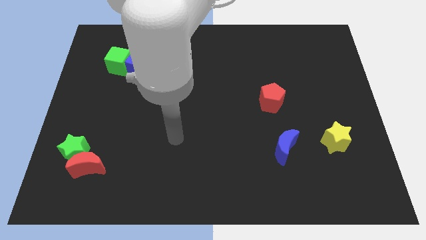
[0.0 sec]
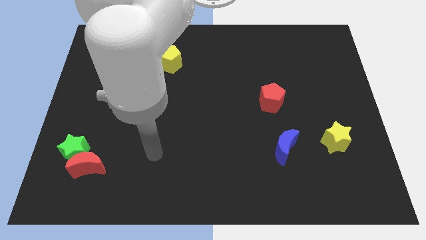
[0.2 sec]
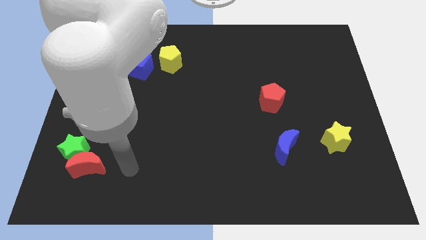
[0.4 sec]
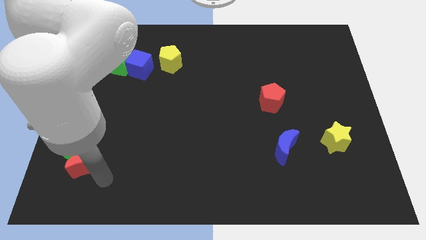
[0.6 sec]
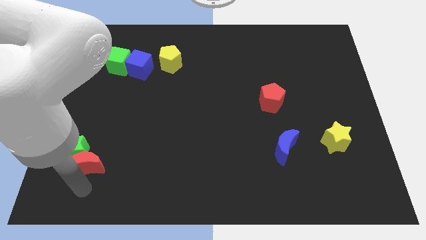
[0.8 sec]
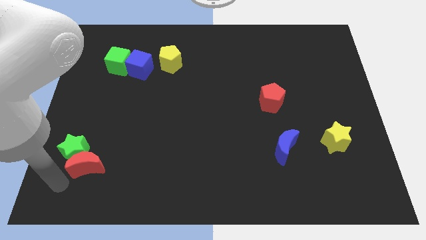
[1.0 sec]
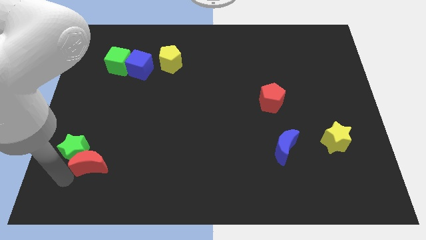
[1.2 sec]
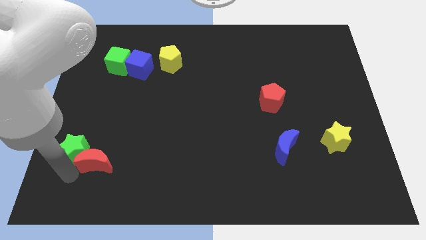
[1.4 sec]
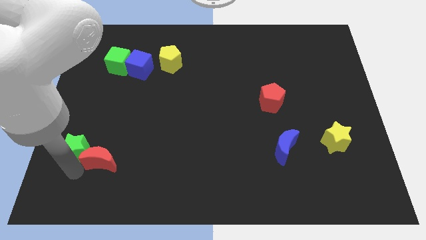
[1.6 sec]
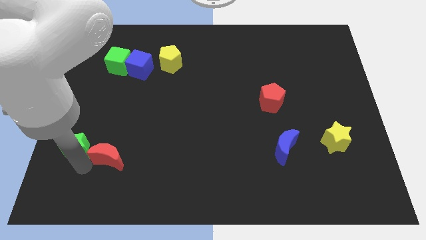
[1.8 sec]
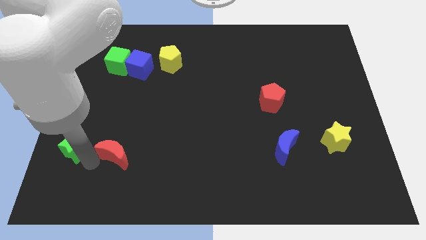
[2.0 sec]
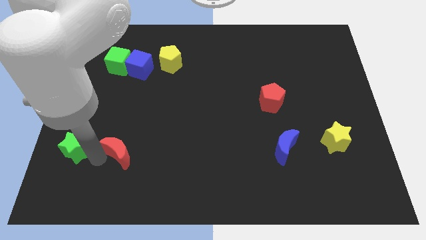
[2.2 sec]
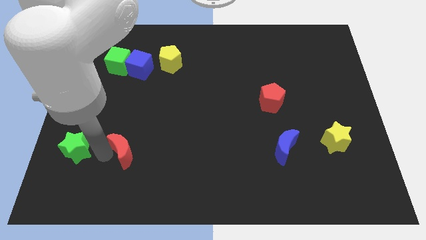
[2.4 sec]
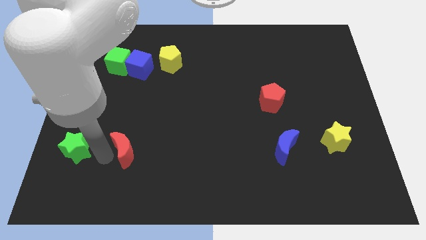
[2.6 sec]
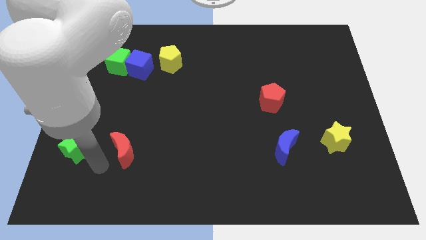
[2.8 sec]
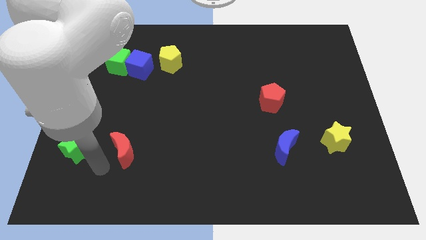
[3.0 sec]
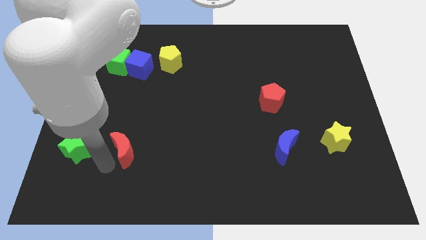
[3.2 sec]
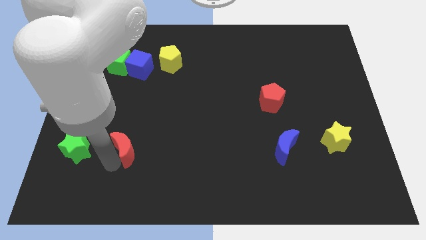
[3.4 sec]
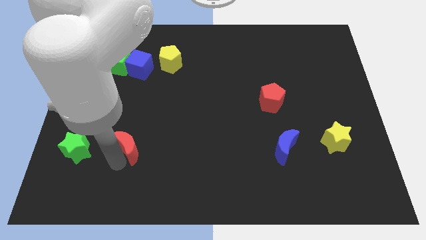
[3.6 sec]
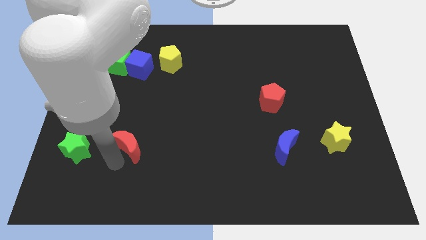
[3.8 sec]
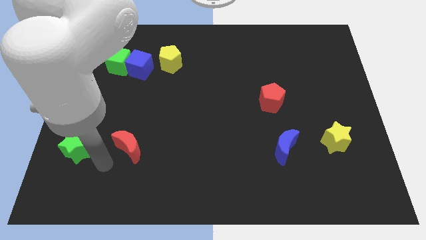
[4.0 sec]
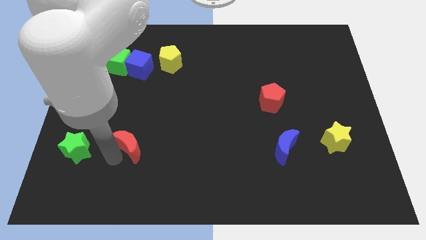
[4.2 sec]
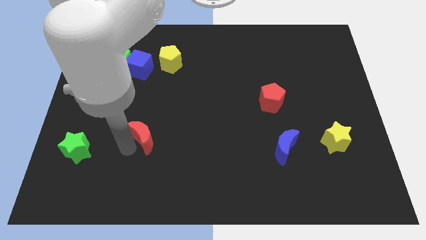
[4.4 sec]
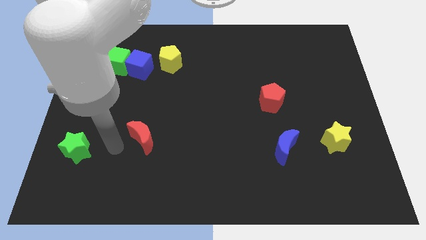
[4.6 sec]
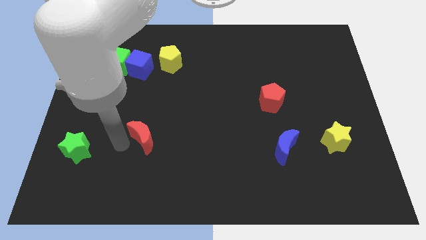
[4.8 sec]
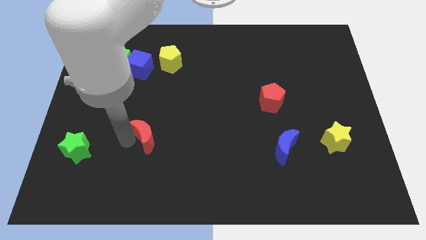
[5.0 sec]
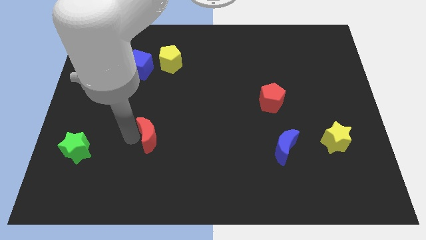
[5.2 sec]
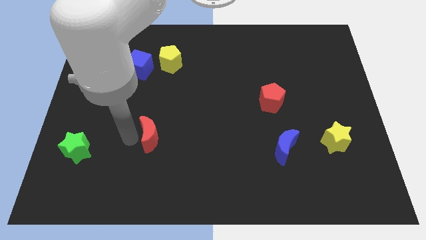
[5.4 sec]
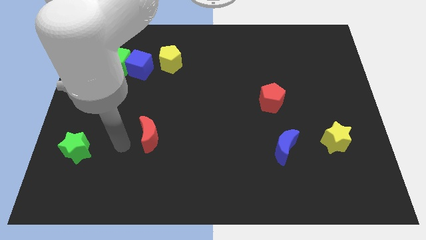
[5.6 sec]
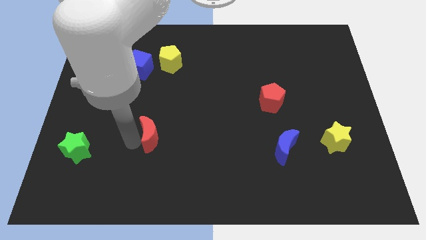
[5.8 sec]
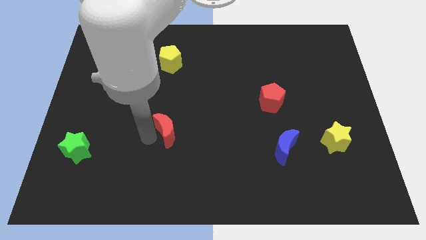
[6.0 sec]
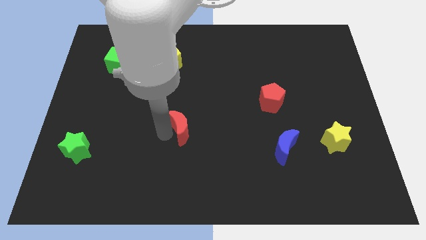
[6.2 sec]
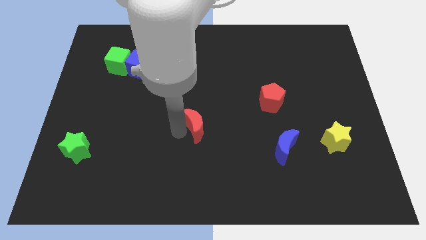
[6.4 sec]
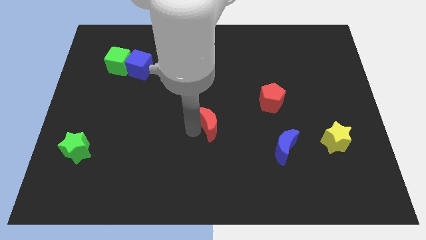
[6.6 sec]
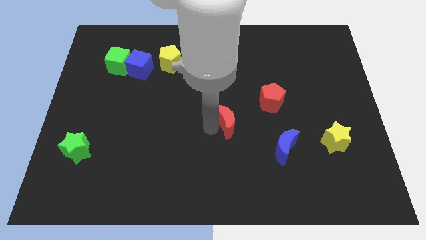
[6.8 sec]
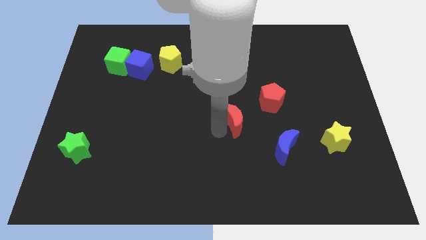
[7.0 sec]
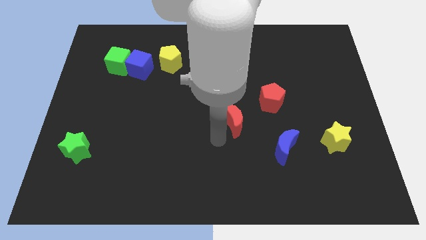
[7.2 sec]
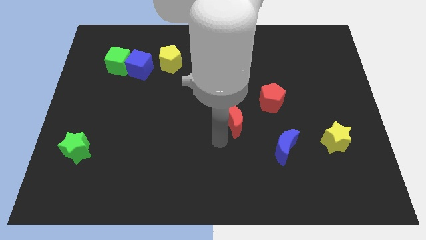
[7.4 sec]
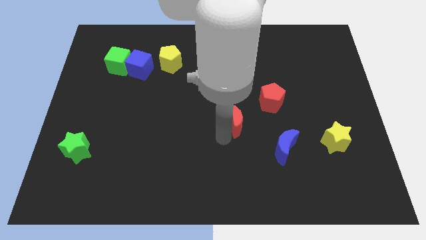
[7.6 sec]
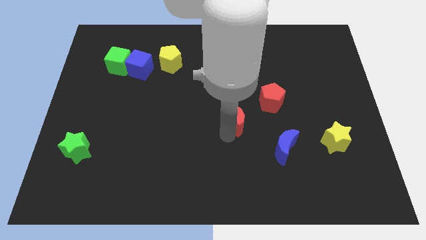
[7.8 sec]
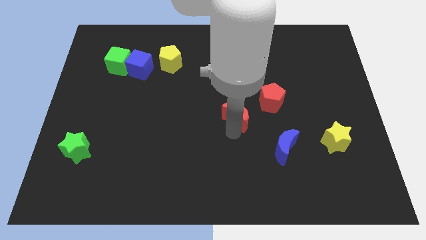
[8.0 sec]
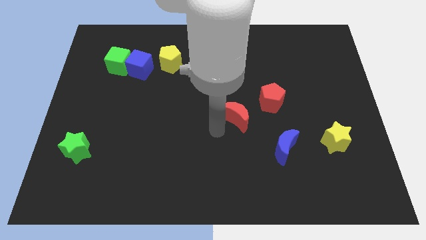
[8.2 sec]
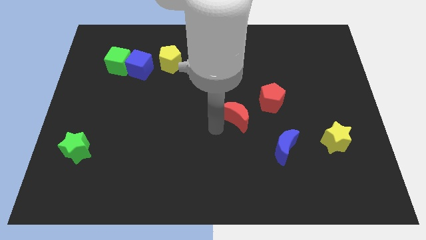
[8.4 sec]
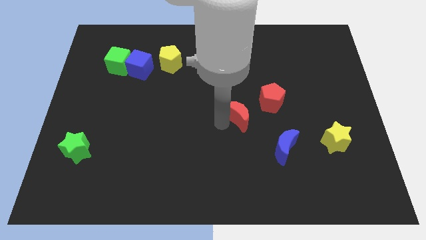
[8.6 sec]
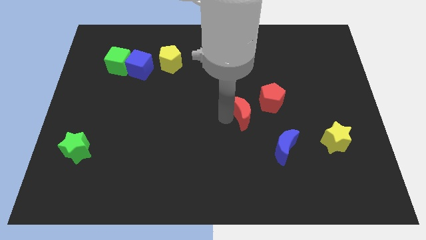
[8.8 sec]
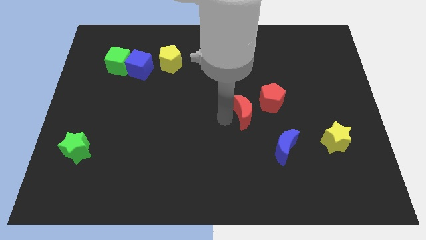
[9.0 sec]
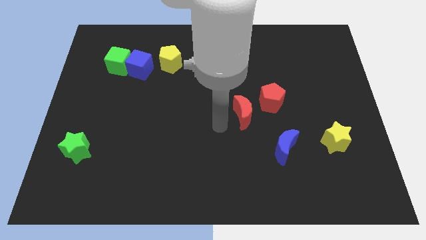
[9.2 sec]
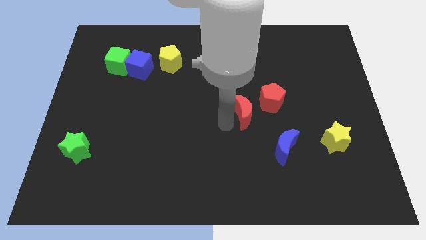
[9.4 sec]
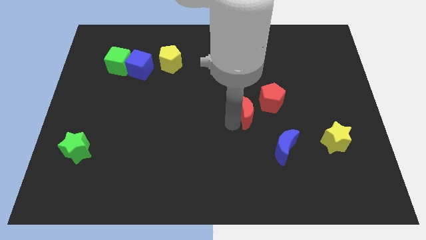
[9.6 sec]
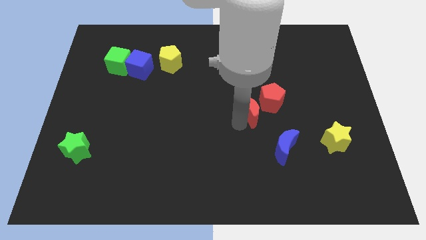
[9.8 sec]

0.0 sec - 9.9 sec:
move the red moon towards the red pentagon

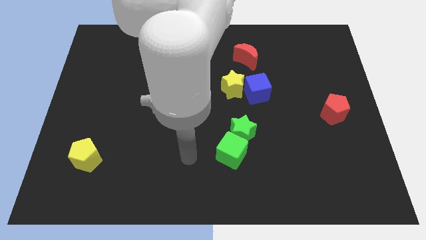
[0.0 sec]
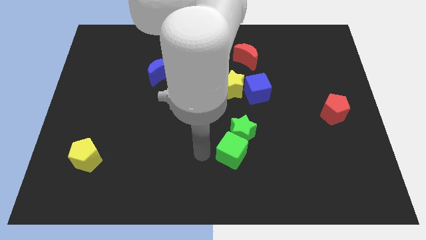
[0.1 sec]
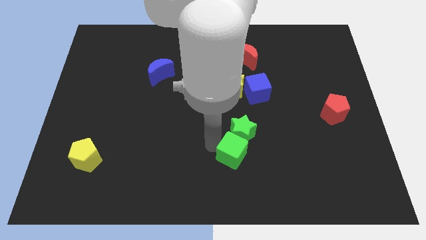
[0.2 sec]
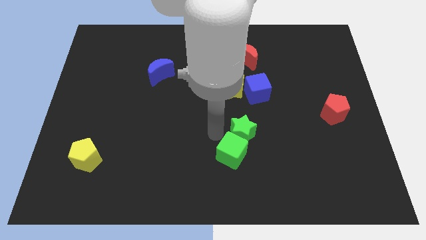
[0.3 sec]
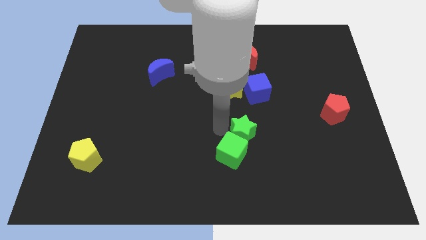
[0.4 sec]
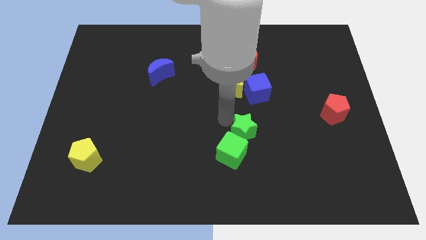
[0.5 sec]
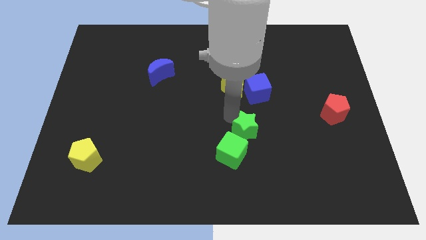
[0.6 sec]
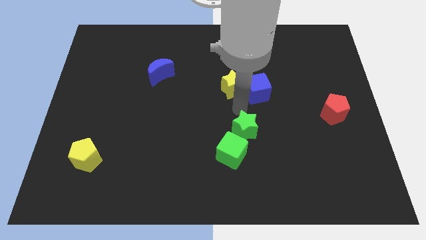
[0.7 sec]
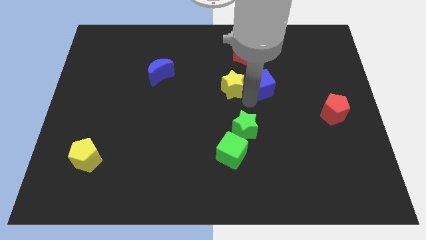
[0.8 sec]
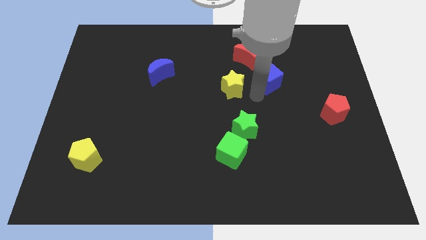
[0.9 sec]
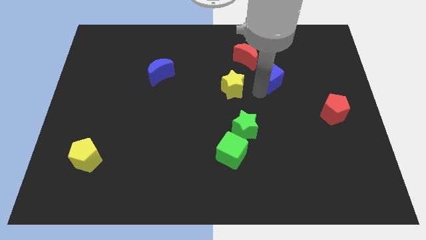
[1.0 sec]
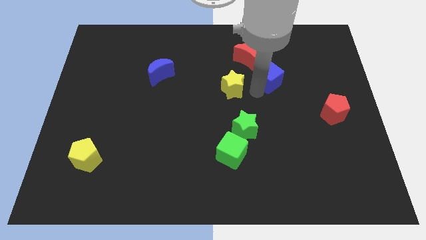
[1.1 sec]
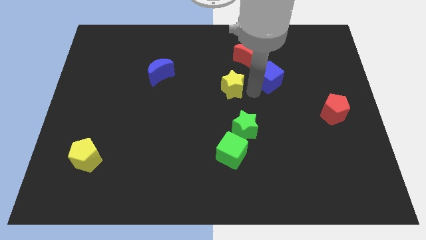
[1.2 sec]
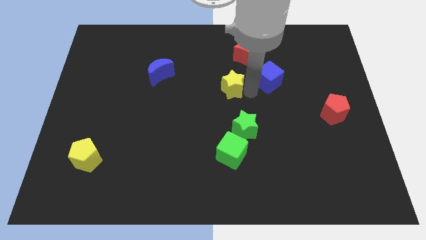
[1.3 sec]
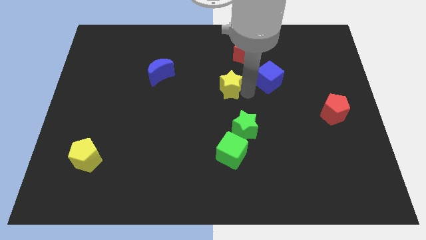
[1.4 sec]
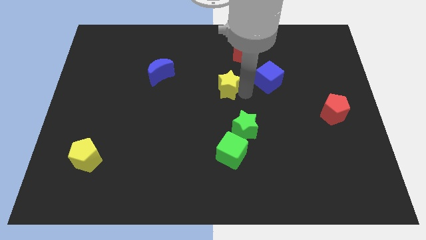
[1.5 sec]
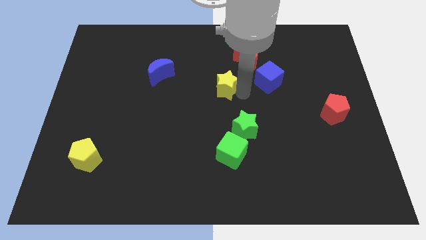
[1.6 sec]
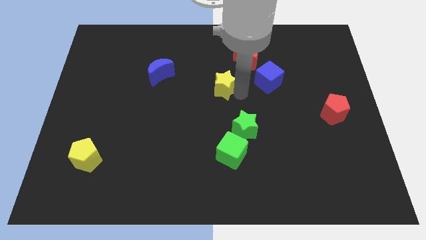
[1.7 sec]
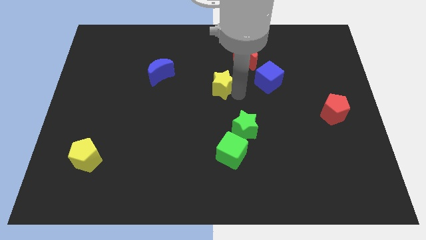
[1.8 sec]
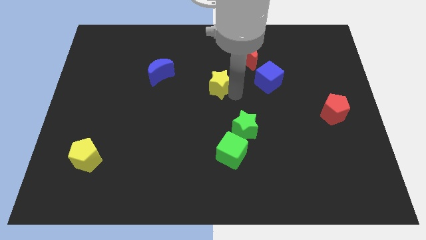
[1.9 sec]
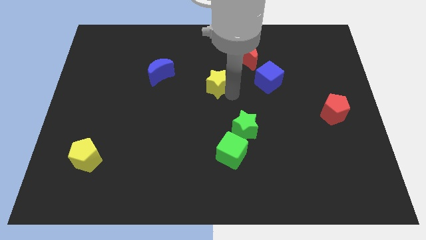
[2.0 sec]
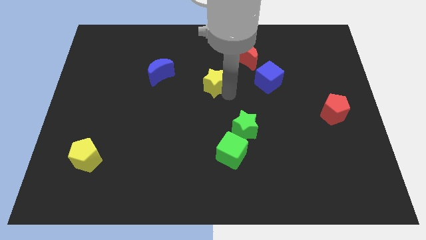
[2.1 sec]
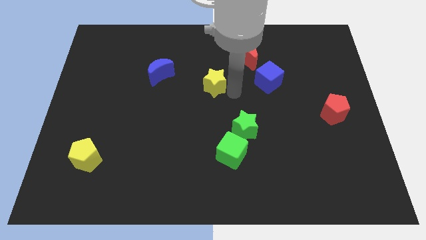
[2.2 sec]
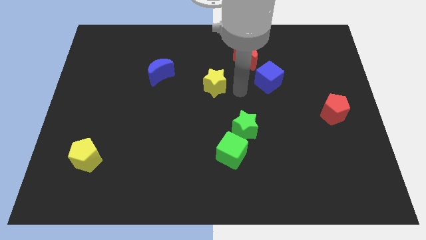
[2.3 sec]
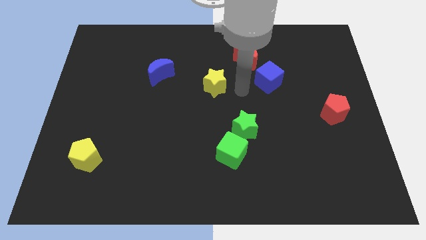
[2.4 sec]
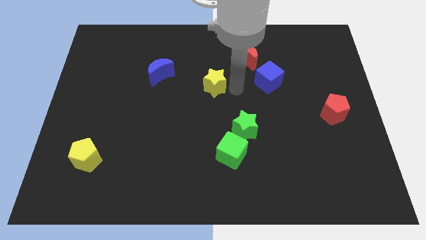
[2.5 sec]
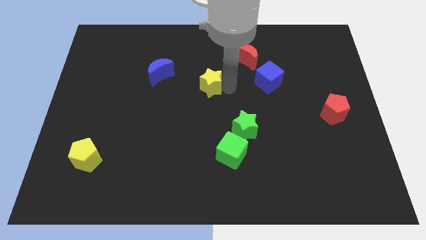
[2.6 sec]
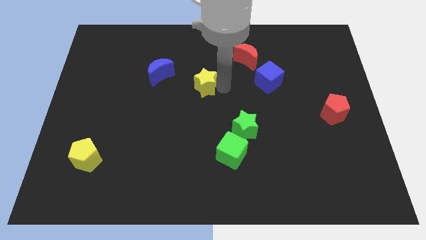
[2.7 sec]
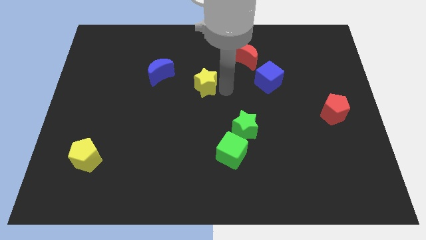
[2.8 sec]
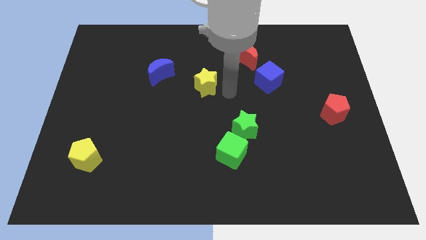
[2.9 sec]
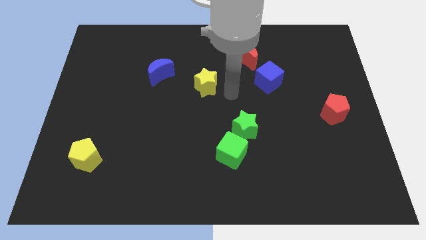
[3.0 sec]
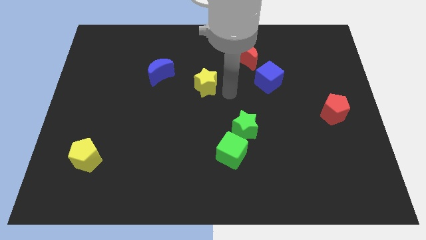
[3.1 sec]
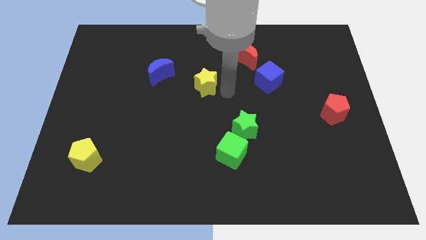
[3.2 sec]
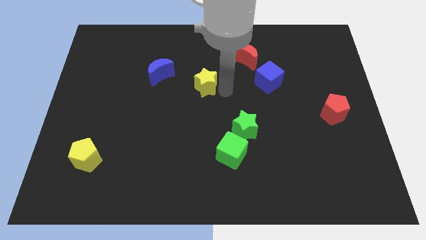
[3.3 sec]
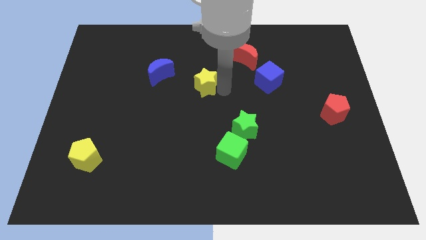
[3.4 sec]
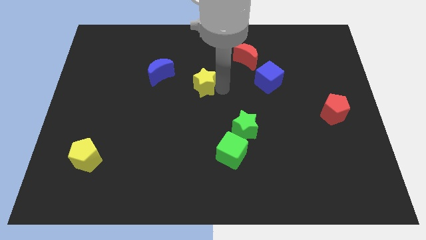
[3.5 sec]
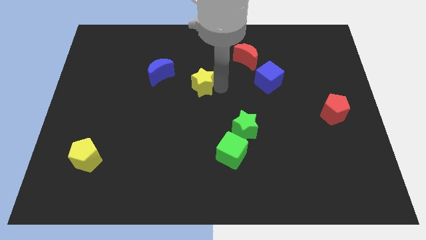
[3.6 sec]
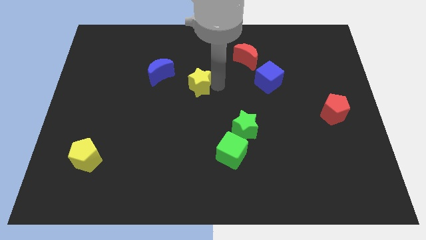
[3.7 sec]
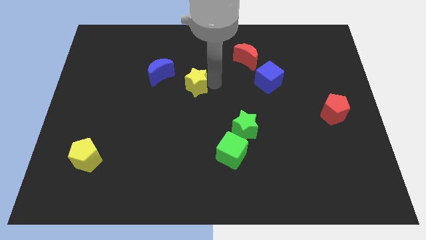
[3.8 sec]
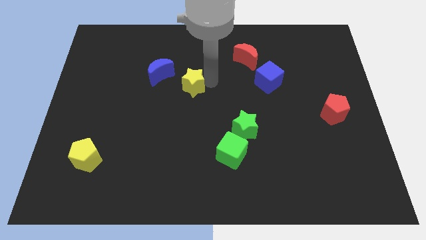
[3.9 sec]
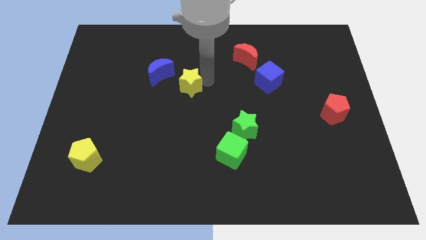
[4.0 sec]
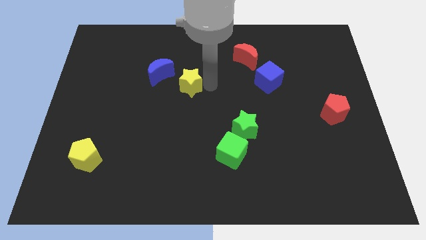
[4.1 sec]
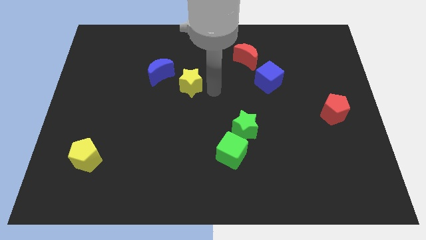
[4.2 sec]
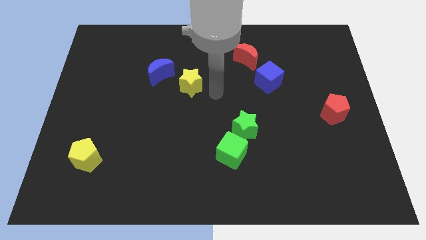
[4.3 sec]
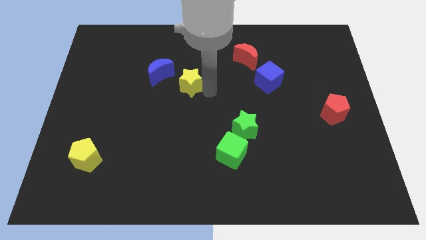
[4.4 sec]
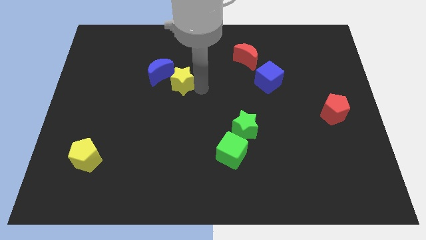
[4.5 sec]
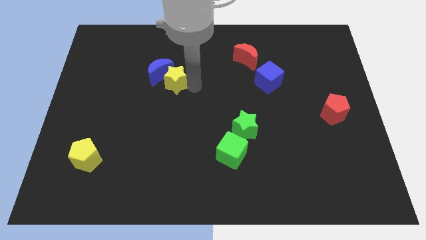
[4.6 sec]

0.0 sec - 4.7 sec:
put the yellow star to the blue moon
